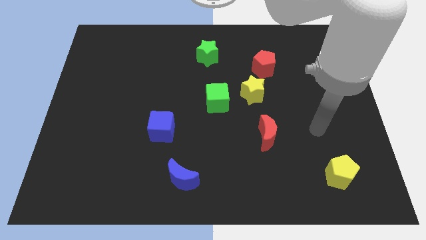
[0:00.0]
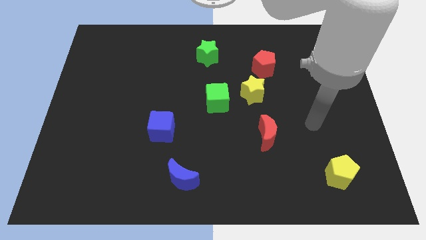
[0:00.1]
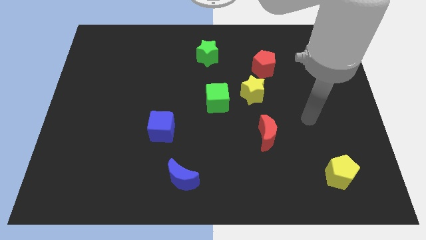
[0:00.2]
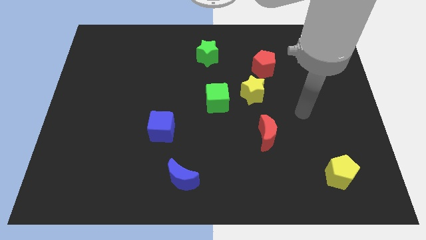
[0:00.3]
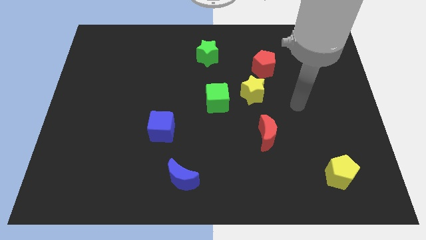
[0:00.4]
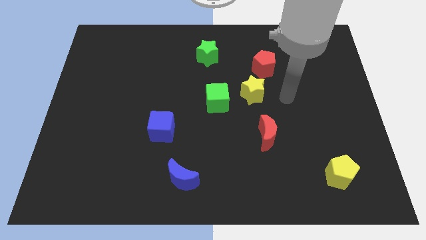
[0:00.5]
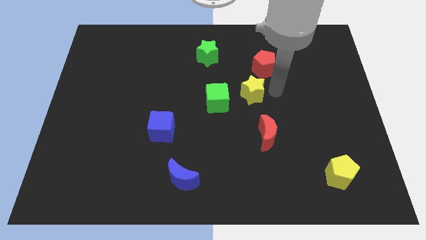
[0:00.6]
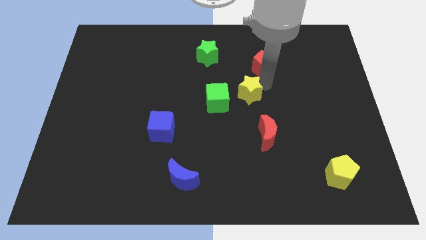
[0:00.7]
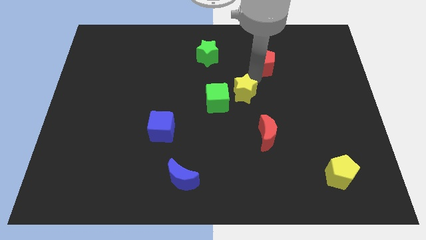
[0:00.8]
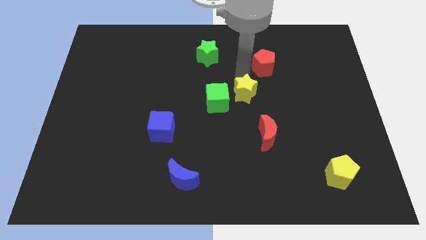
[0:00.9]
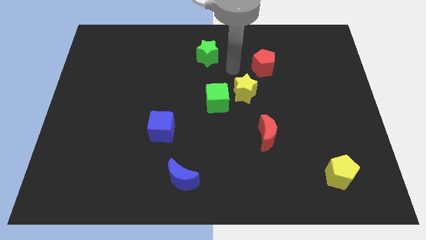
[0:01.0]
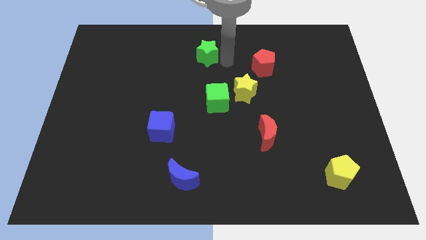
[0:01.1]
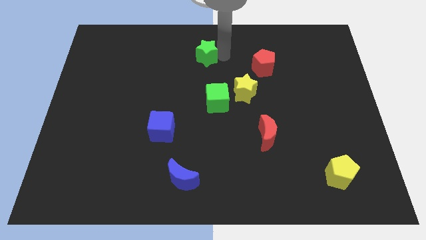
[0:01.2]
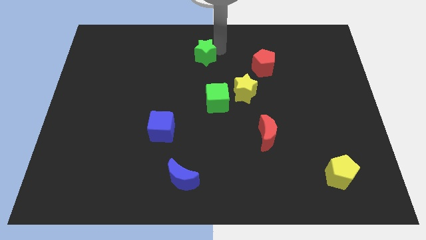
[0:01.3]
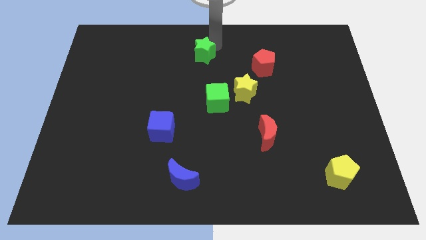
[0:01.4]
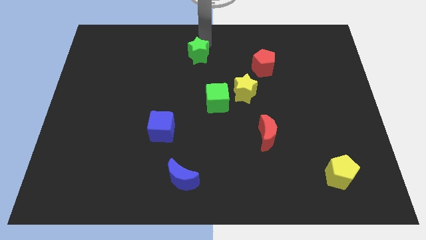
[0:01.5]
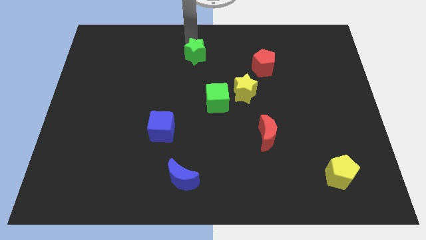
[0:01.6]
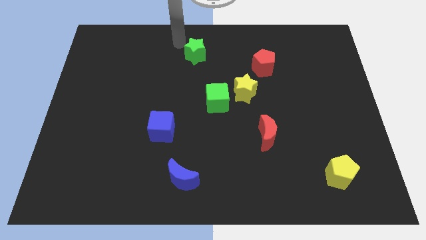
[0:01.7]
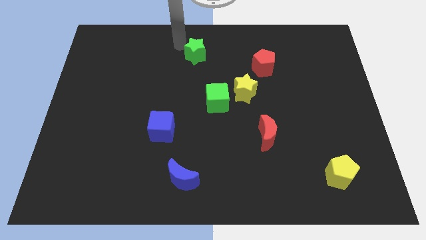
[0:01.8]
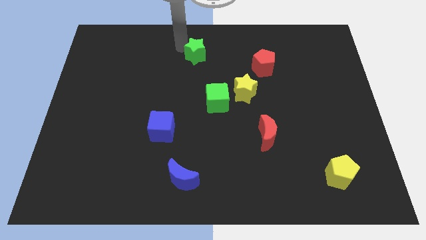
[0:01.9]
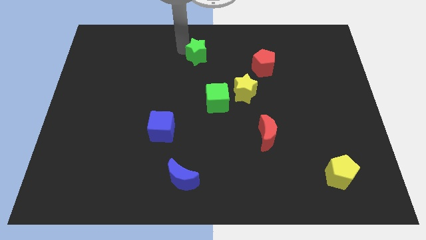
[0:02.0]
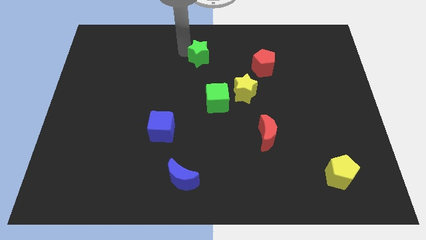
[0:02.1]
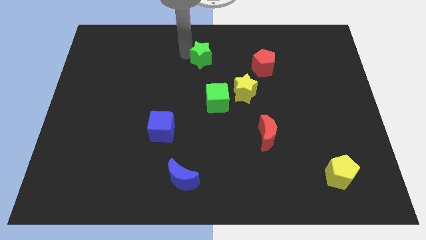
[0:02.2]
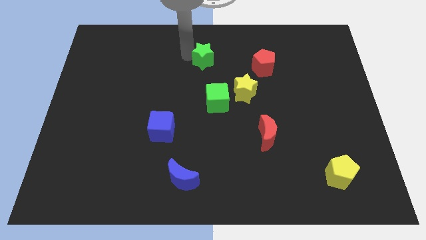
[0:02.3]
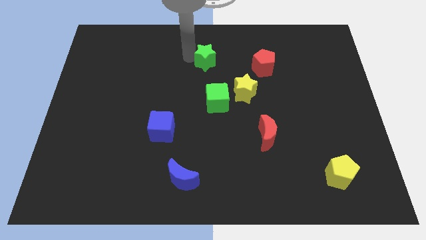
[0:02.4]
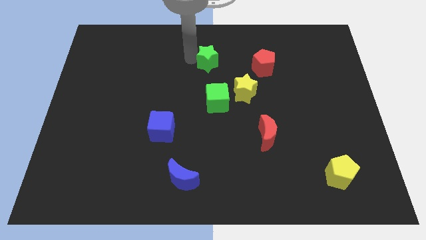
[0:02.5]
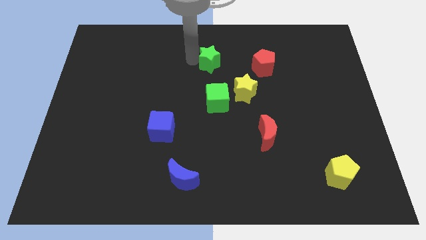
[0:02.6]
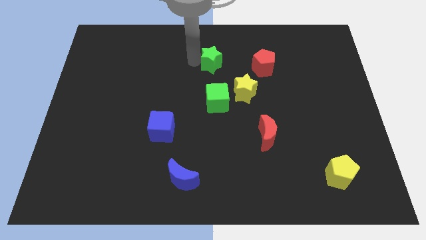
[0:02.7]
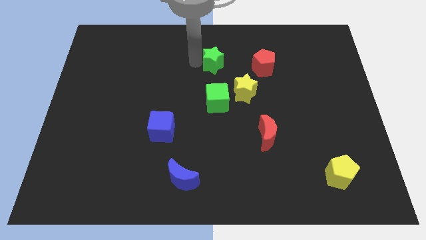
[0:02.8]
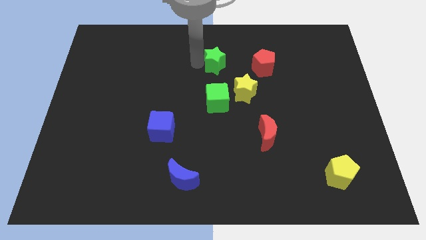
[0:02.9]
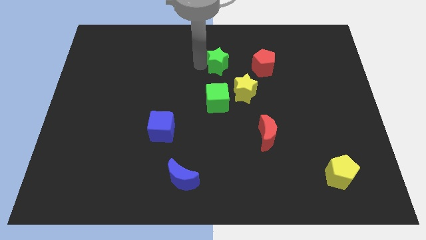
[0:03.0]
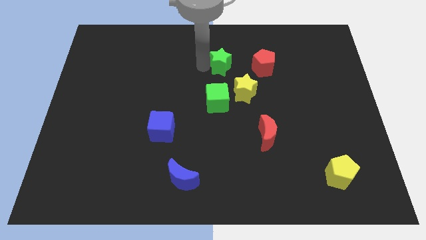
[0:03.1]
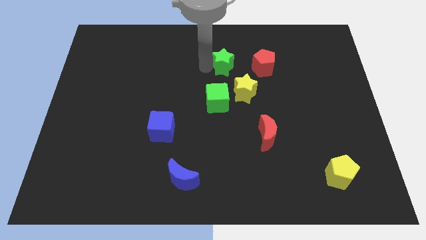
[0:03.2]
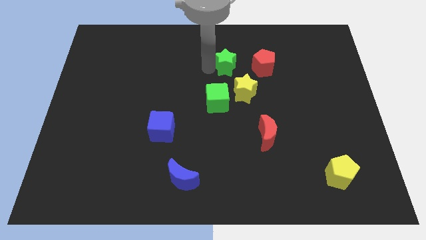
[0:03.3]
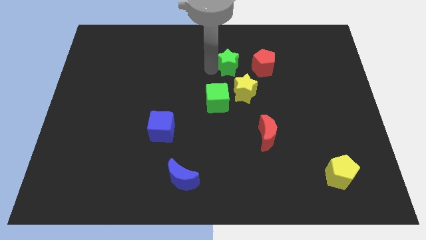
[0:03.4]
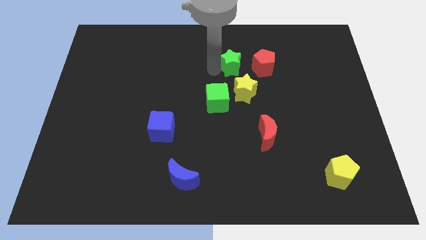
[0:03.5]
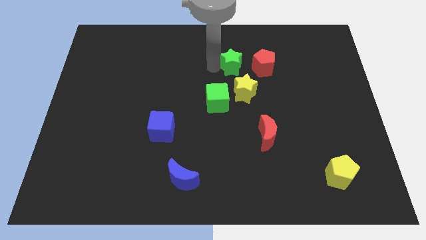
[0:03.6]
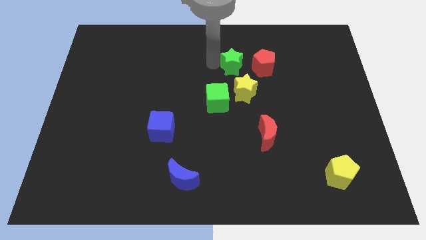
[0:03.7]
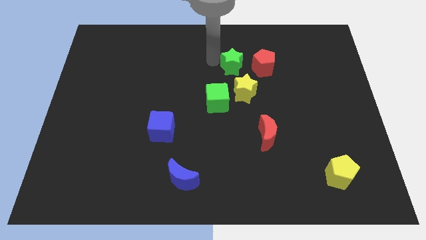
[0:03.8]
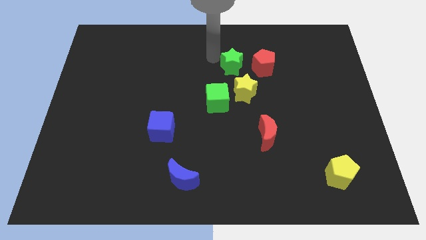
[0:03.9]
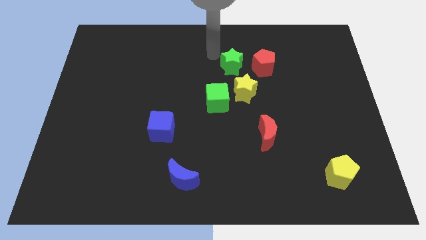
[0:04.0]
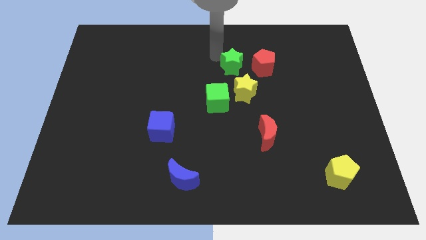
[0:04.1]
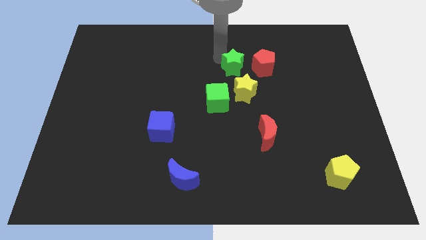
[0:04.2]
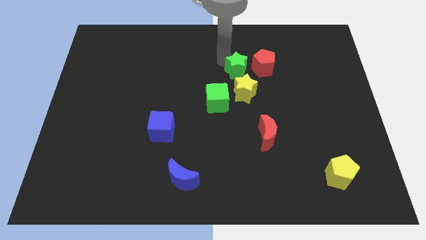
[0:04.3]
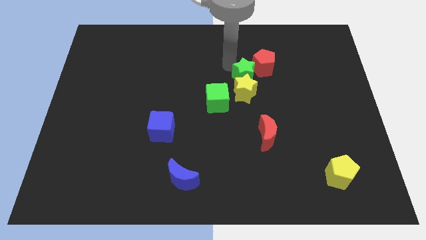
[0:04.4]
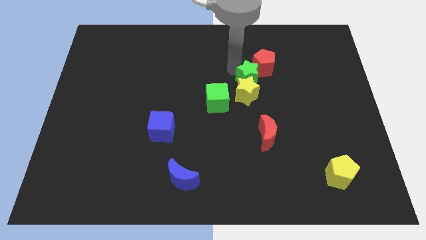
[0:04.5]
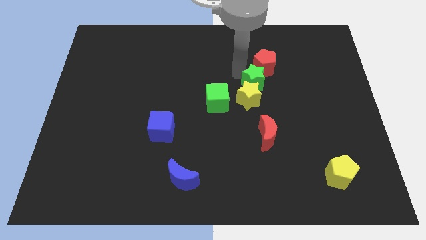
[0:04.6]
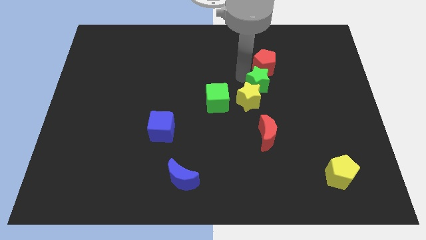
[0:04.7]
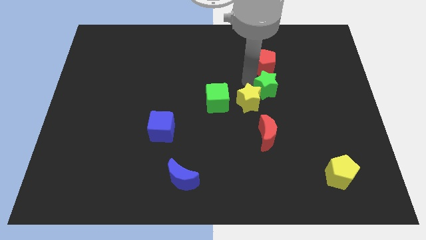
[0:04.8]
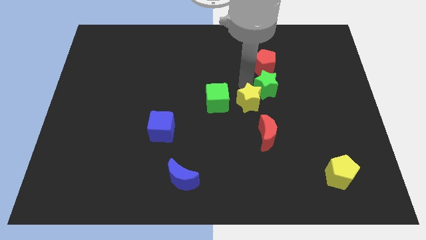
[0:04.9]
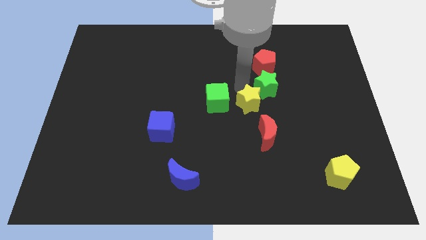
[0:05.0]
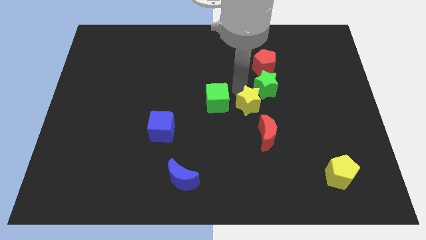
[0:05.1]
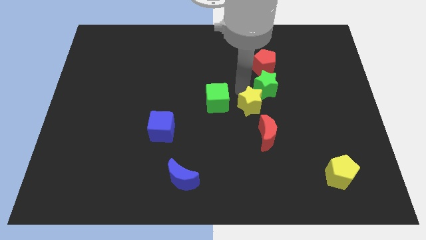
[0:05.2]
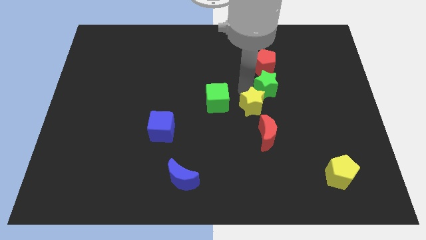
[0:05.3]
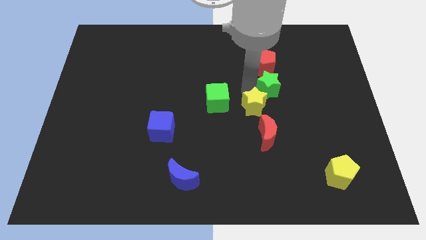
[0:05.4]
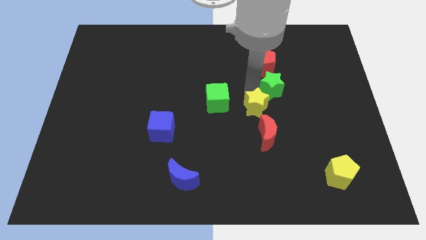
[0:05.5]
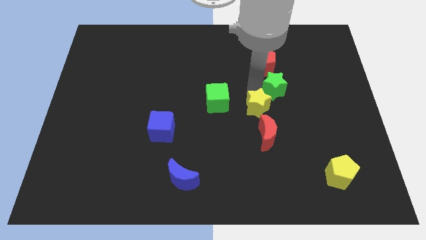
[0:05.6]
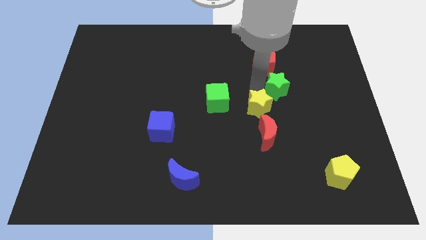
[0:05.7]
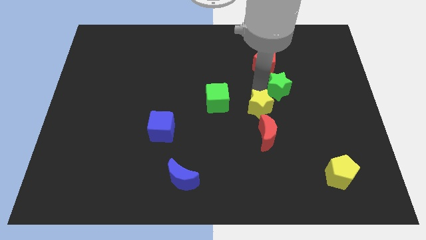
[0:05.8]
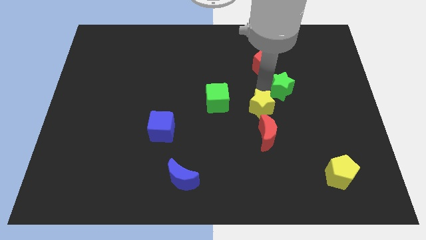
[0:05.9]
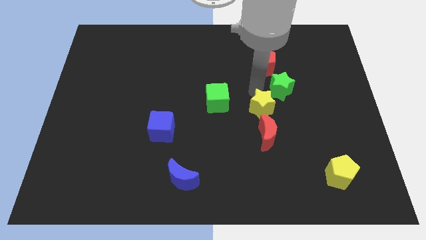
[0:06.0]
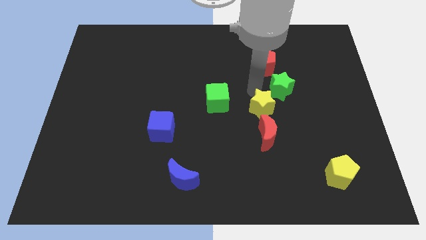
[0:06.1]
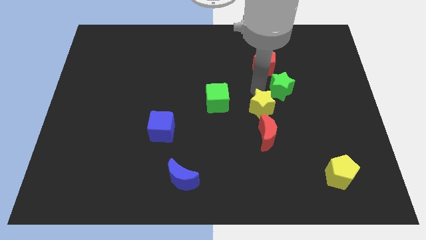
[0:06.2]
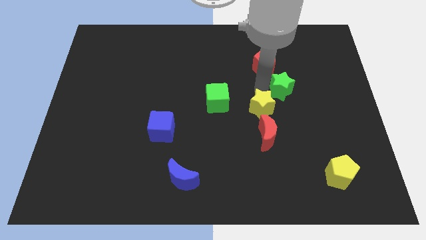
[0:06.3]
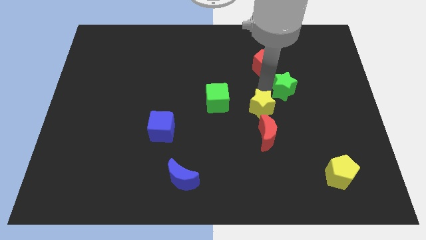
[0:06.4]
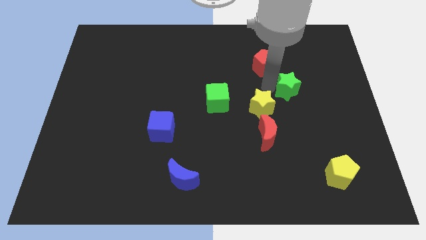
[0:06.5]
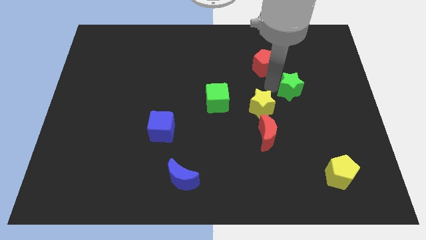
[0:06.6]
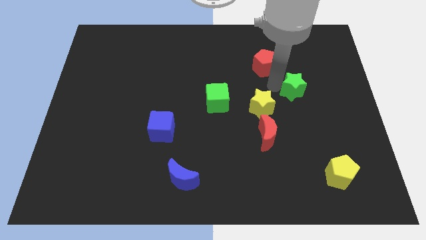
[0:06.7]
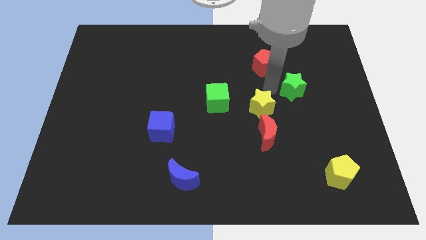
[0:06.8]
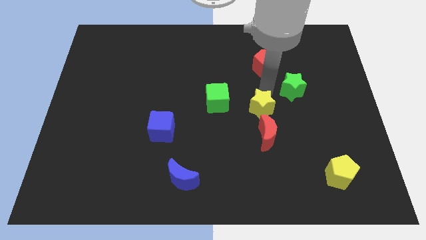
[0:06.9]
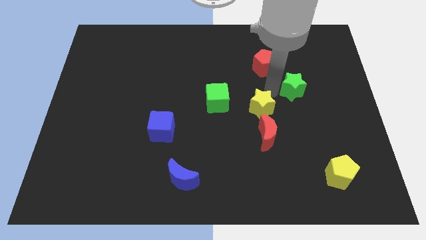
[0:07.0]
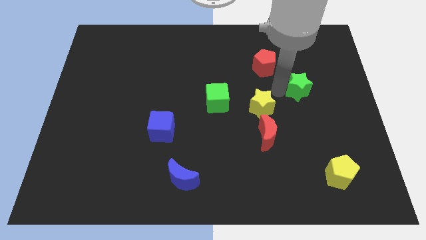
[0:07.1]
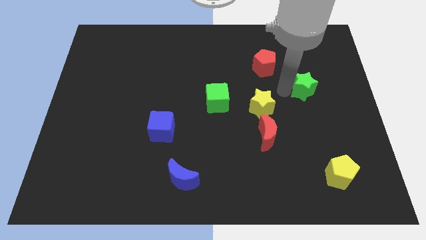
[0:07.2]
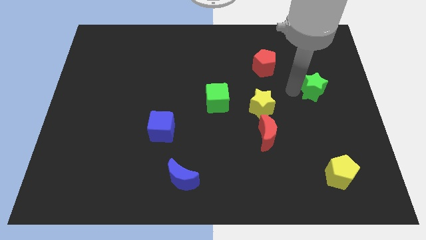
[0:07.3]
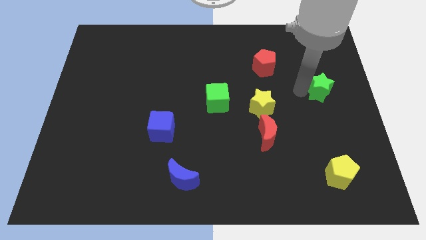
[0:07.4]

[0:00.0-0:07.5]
slide the green star to the center right
